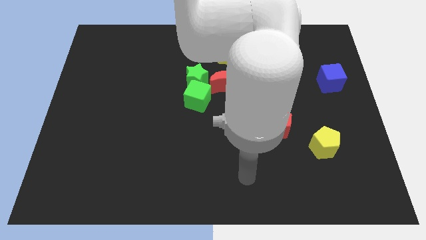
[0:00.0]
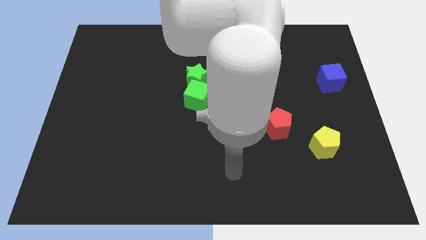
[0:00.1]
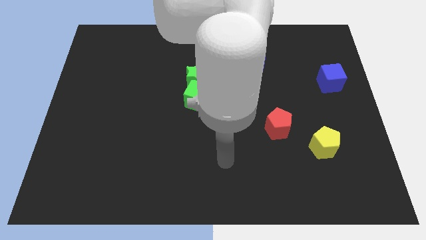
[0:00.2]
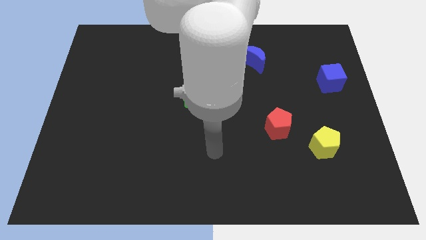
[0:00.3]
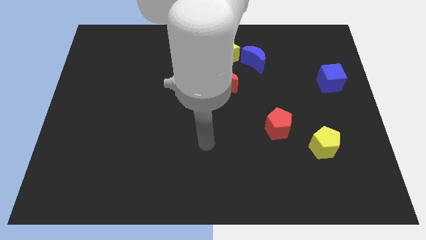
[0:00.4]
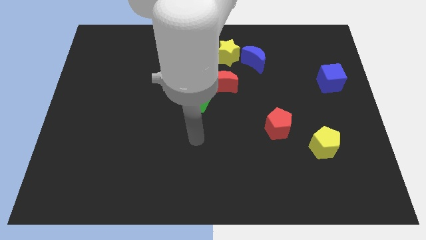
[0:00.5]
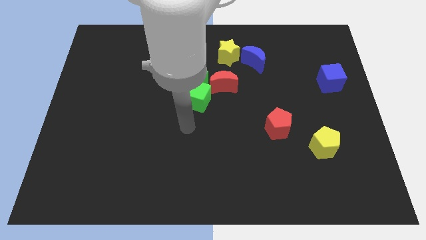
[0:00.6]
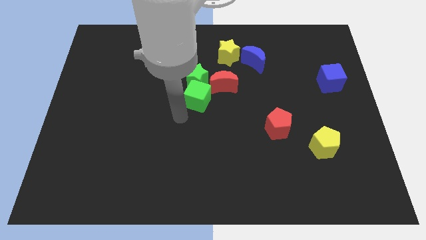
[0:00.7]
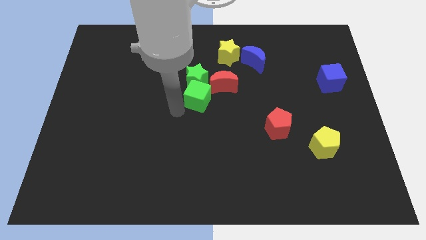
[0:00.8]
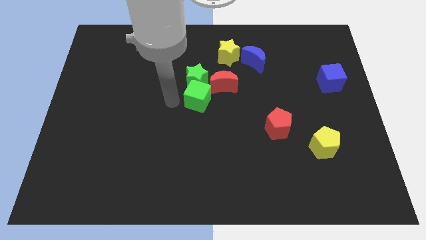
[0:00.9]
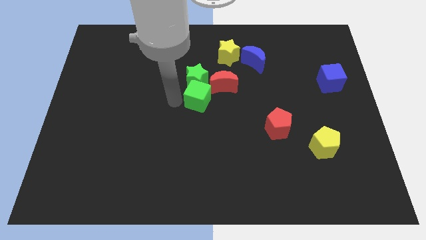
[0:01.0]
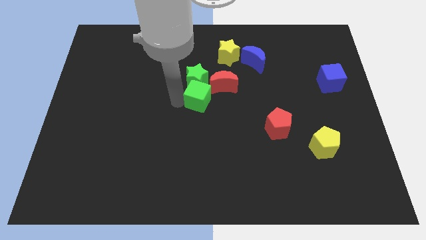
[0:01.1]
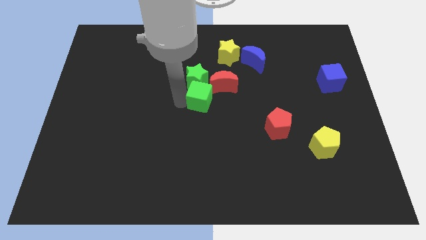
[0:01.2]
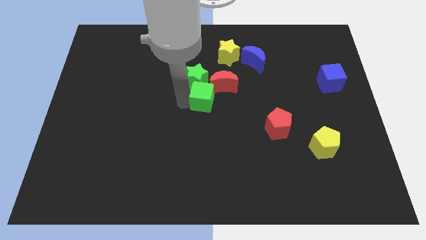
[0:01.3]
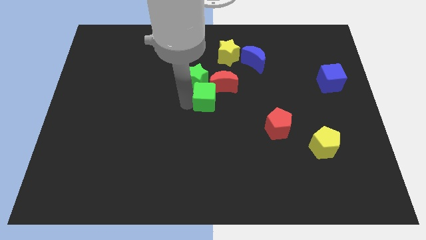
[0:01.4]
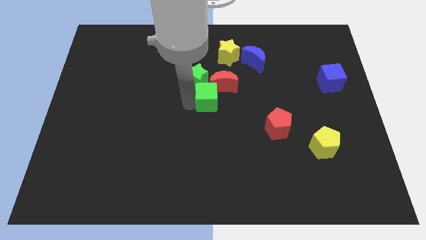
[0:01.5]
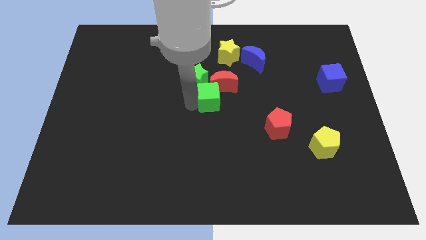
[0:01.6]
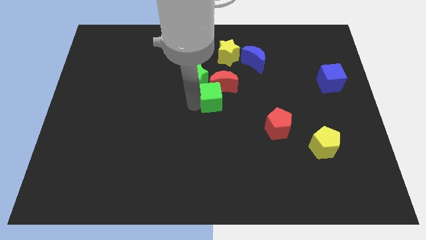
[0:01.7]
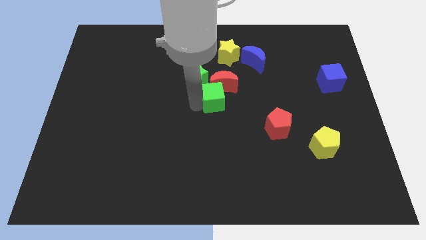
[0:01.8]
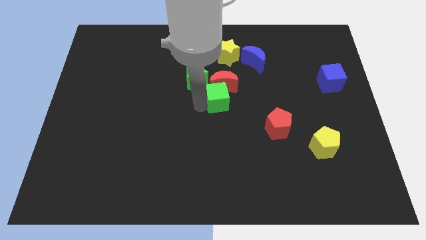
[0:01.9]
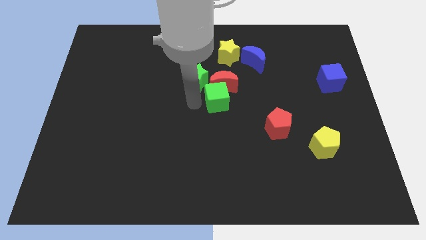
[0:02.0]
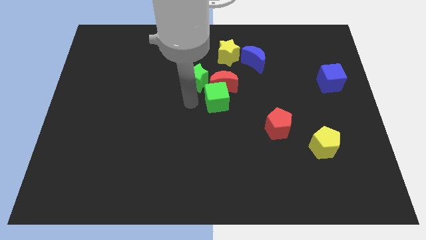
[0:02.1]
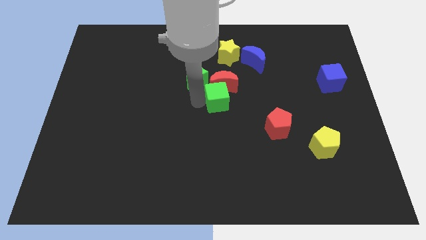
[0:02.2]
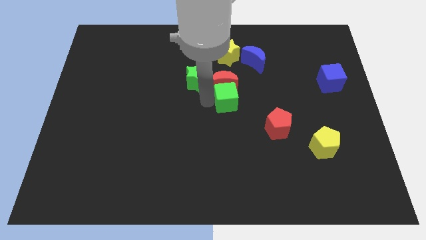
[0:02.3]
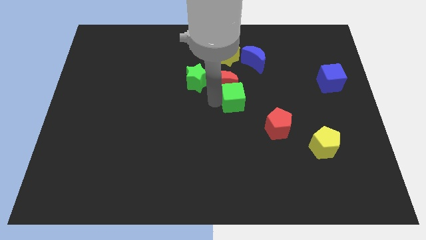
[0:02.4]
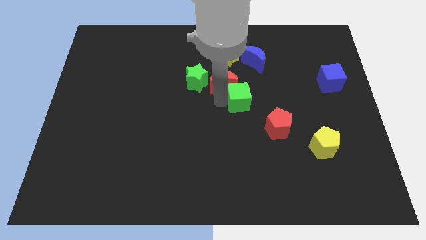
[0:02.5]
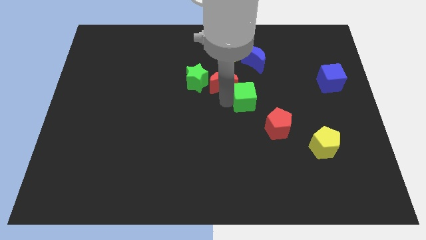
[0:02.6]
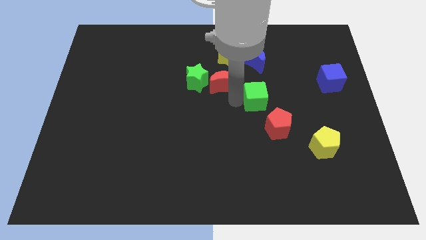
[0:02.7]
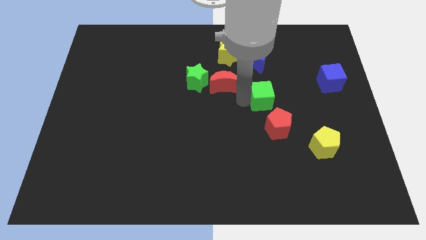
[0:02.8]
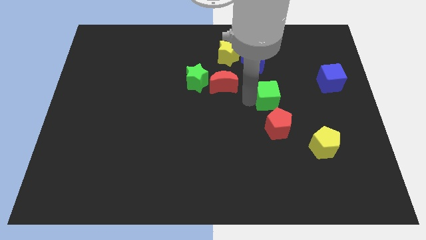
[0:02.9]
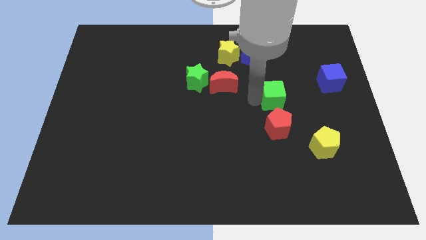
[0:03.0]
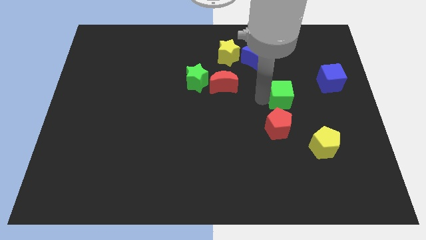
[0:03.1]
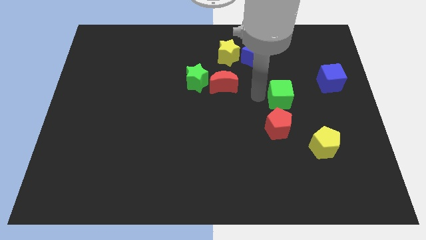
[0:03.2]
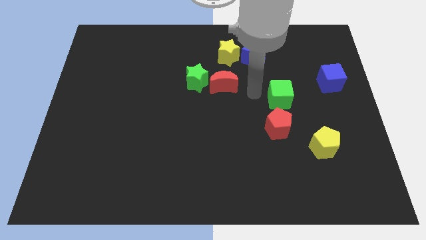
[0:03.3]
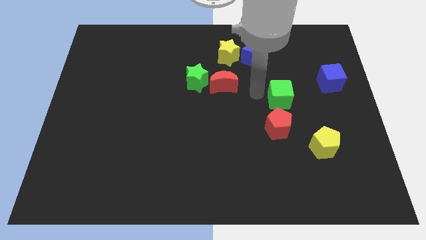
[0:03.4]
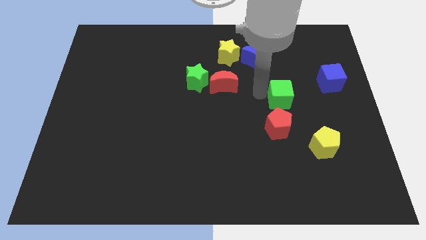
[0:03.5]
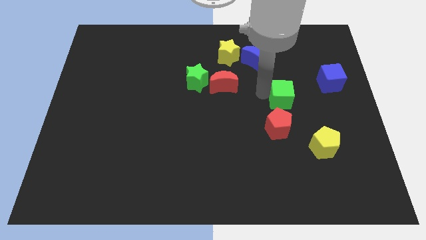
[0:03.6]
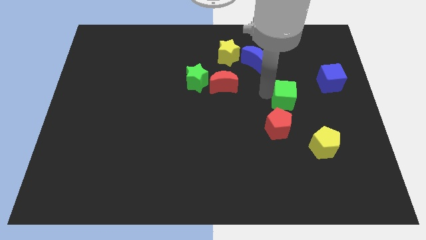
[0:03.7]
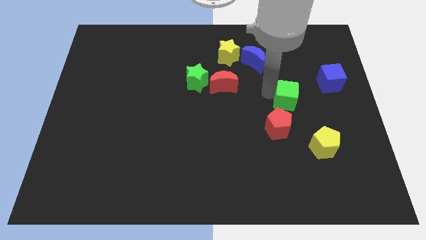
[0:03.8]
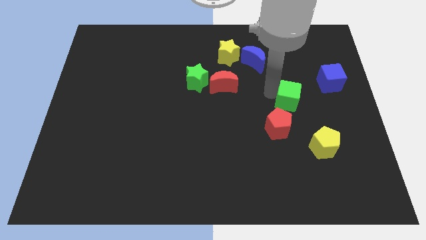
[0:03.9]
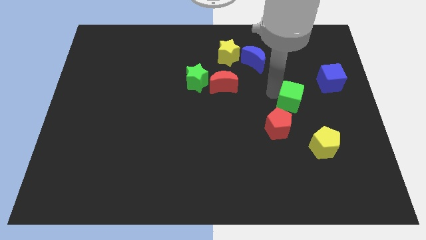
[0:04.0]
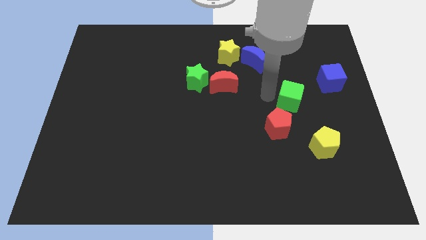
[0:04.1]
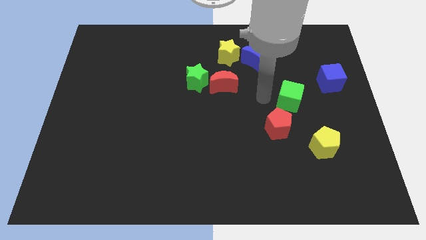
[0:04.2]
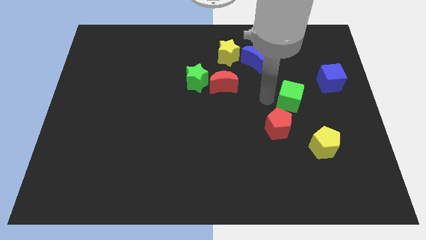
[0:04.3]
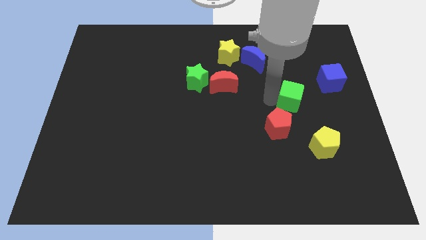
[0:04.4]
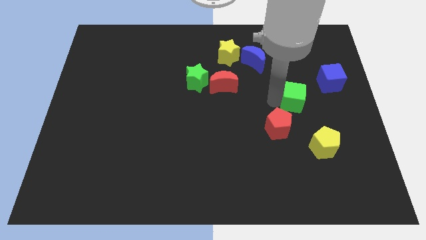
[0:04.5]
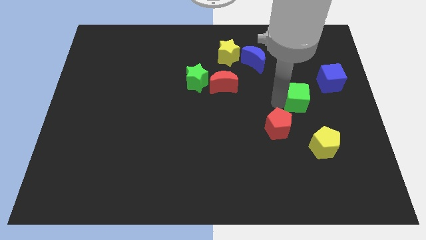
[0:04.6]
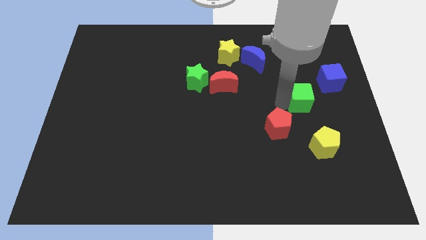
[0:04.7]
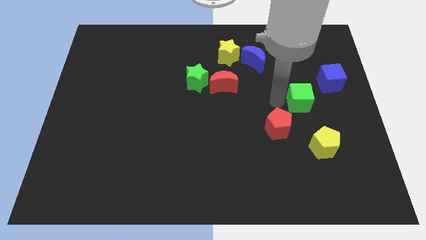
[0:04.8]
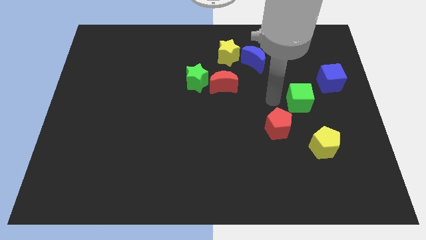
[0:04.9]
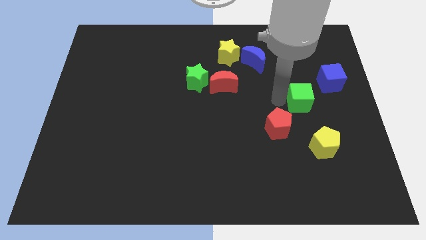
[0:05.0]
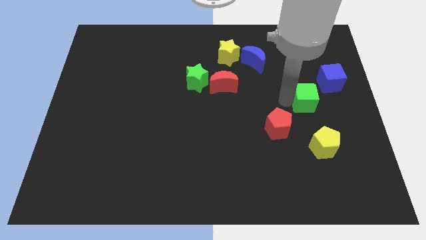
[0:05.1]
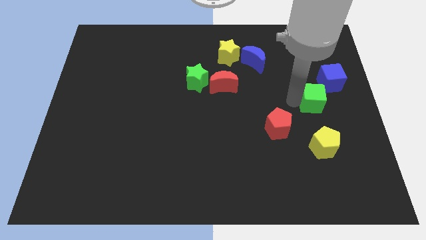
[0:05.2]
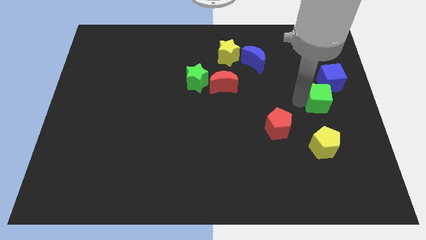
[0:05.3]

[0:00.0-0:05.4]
slide the green cube to the right side of the board

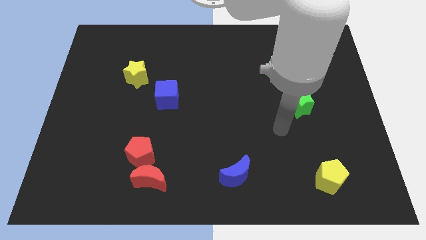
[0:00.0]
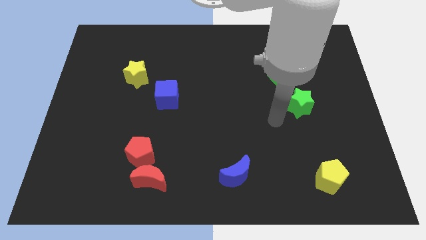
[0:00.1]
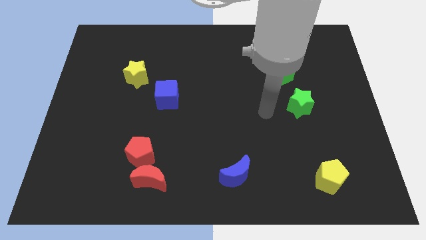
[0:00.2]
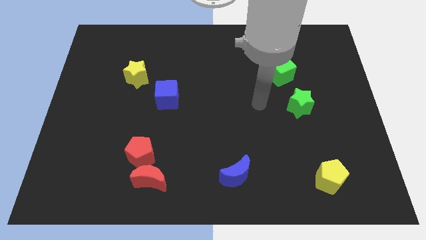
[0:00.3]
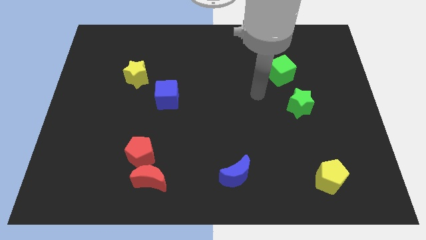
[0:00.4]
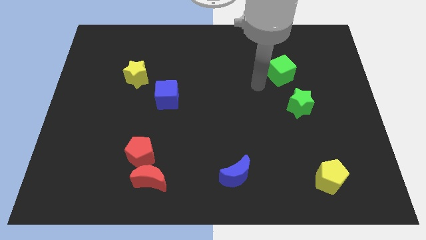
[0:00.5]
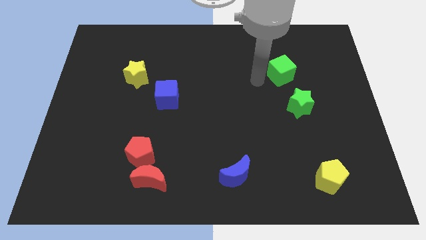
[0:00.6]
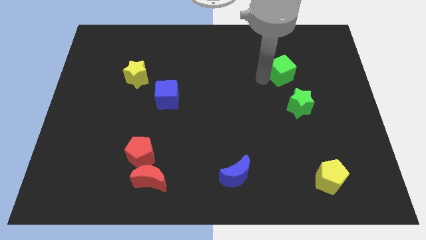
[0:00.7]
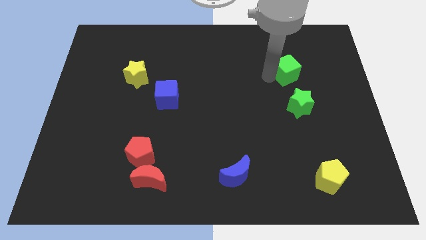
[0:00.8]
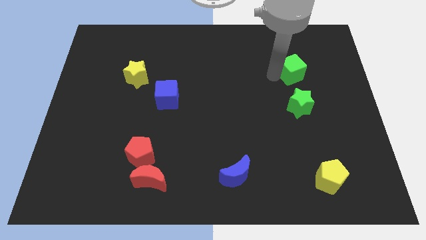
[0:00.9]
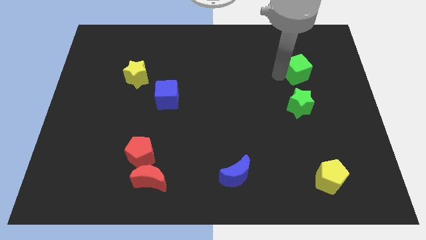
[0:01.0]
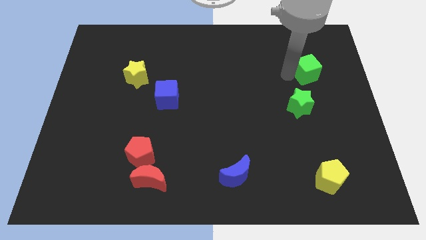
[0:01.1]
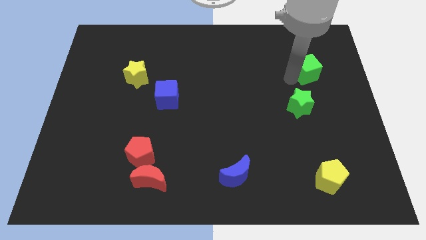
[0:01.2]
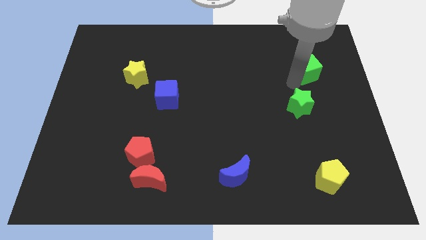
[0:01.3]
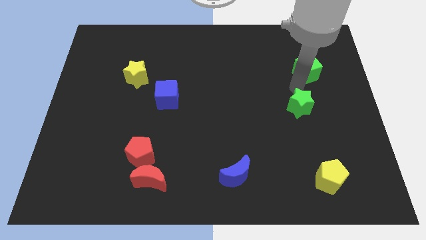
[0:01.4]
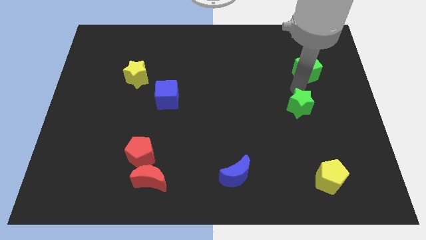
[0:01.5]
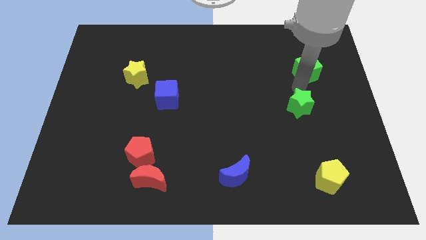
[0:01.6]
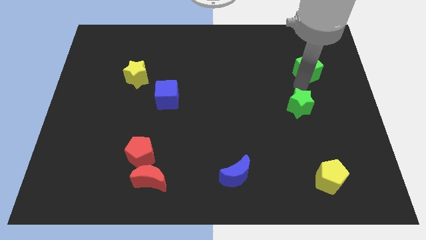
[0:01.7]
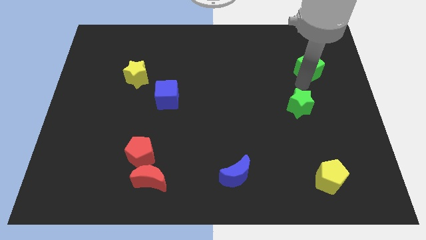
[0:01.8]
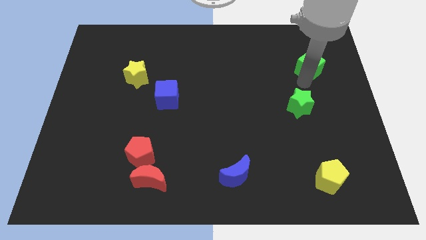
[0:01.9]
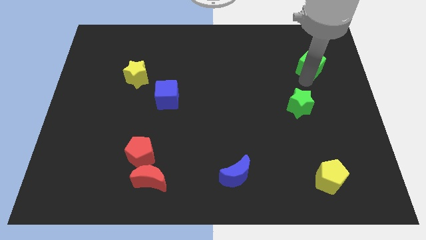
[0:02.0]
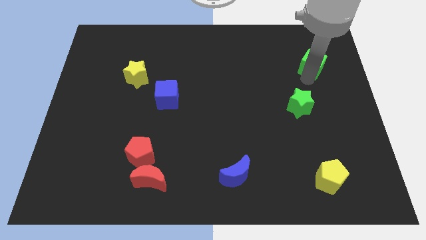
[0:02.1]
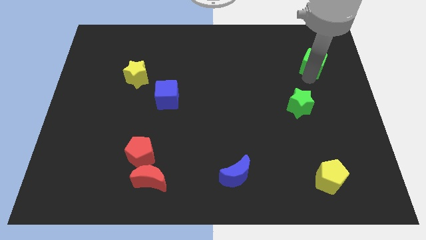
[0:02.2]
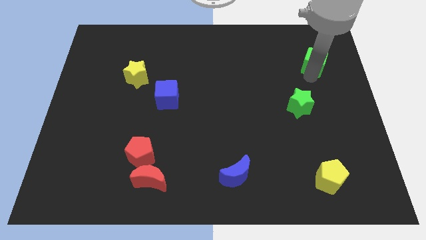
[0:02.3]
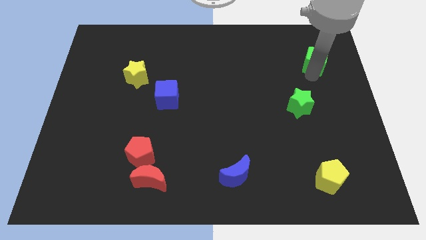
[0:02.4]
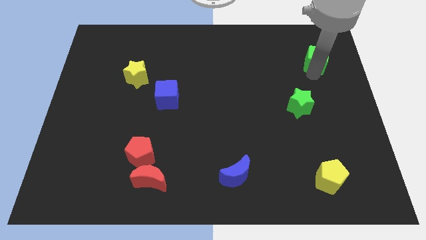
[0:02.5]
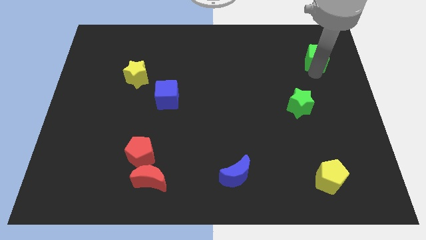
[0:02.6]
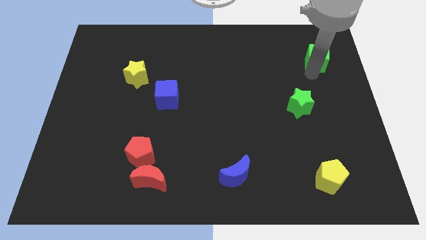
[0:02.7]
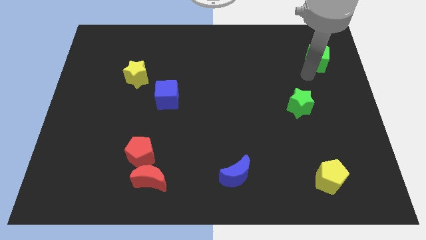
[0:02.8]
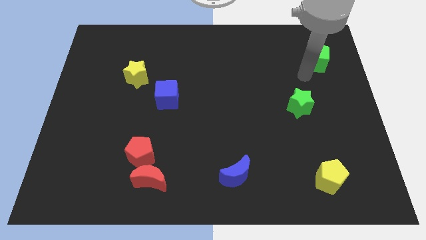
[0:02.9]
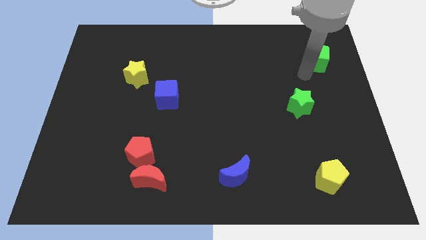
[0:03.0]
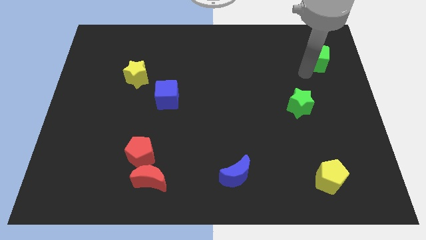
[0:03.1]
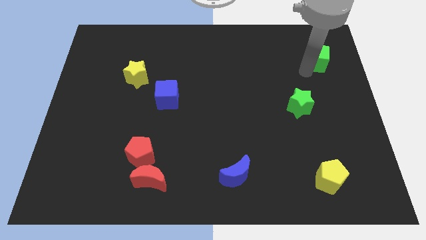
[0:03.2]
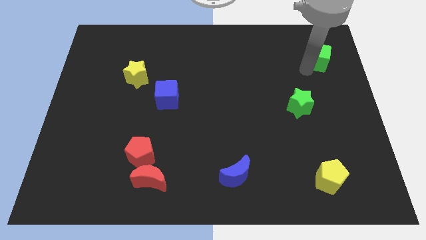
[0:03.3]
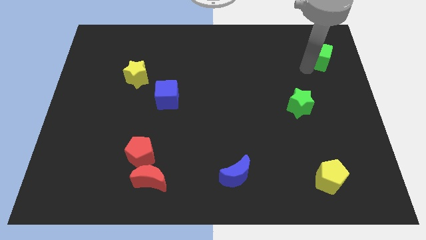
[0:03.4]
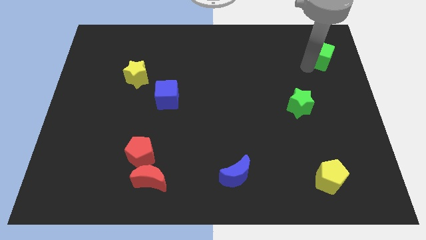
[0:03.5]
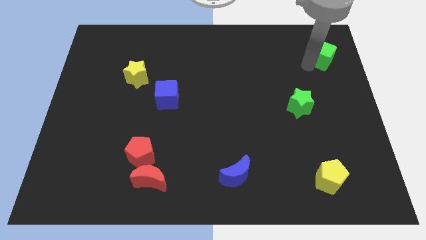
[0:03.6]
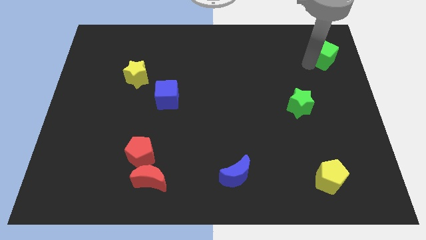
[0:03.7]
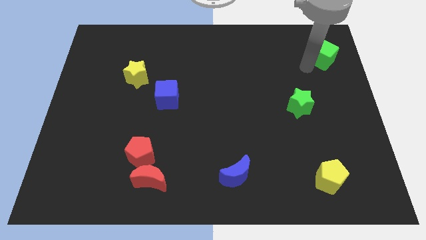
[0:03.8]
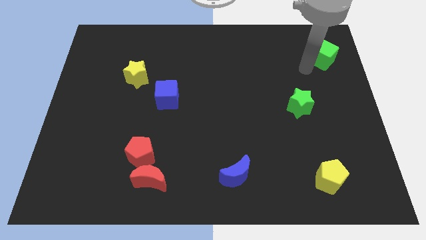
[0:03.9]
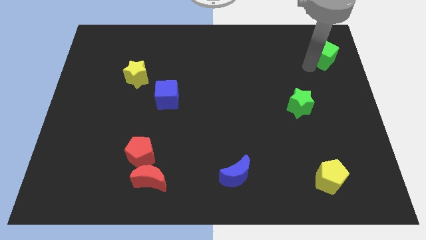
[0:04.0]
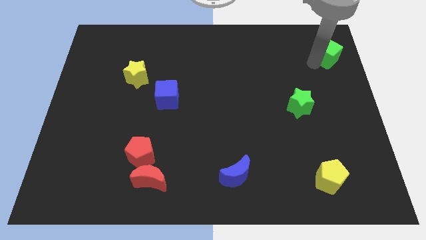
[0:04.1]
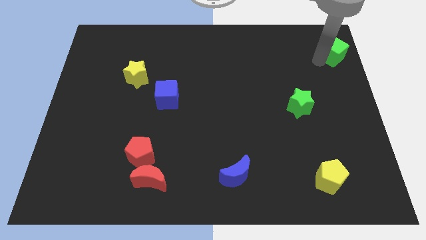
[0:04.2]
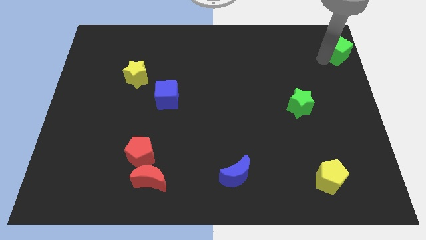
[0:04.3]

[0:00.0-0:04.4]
push the green cube to the upper right corner
